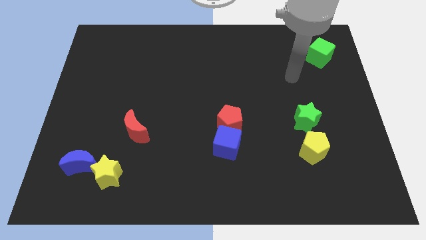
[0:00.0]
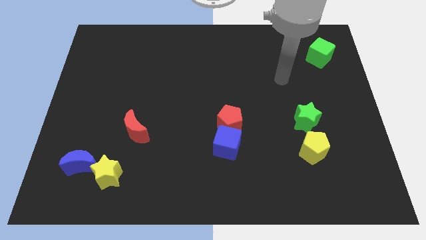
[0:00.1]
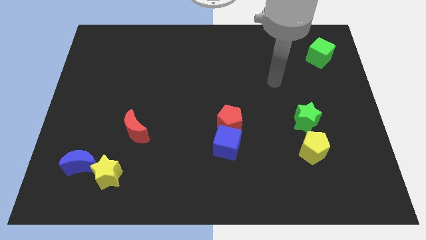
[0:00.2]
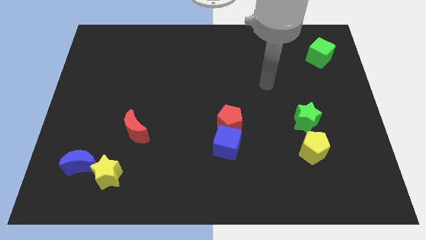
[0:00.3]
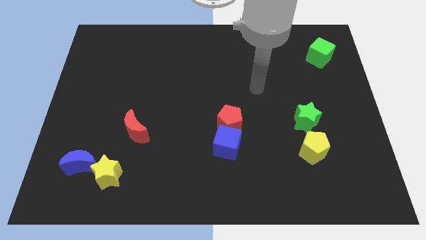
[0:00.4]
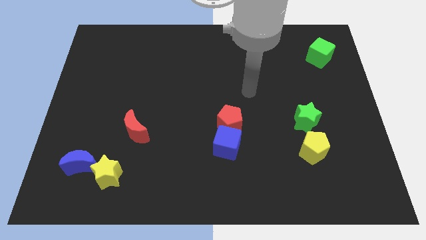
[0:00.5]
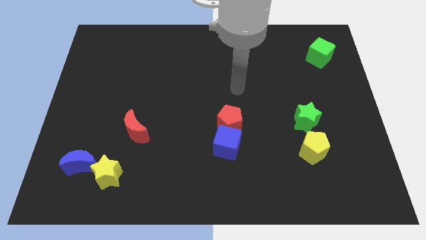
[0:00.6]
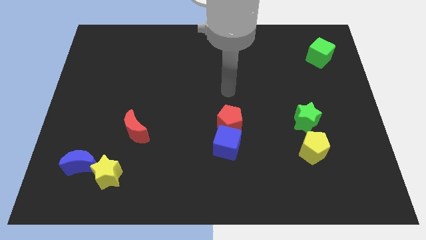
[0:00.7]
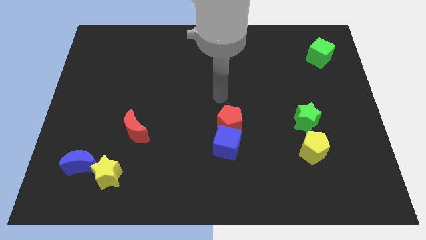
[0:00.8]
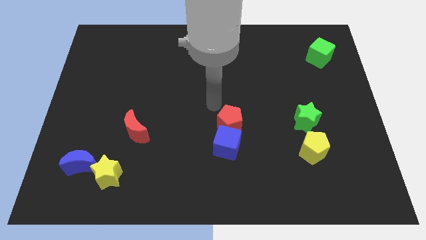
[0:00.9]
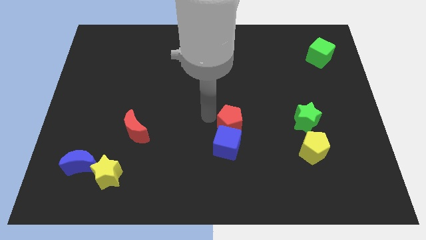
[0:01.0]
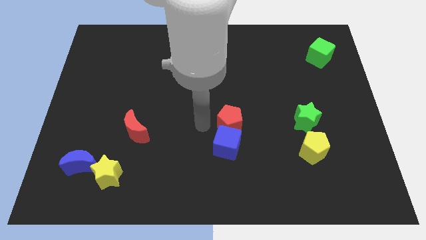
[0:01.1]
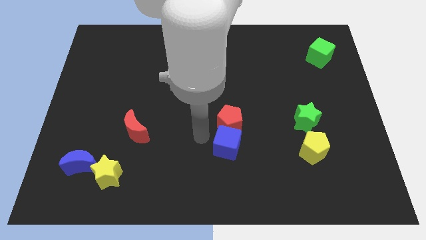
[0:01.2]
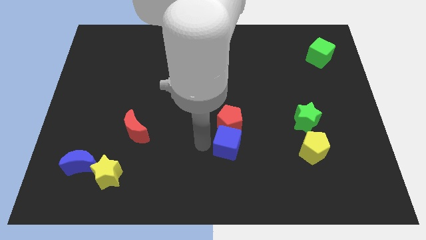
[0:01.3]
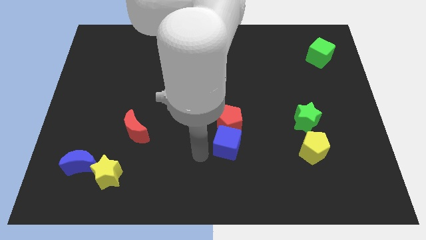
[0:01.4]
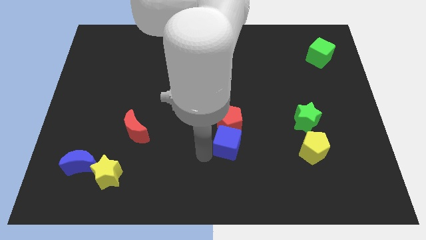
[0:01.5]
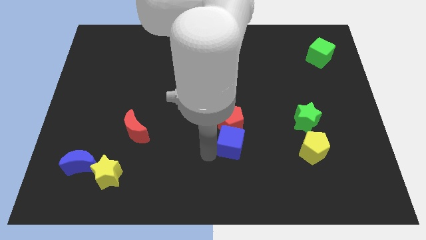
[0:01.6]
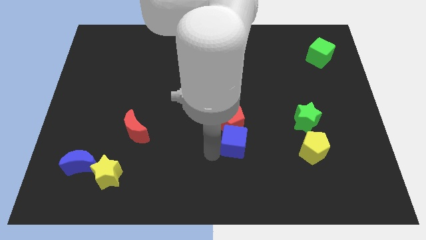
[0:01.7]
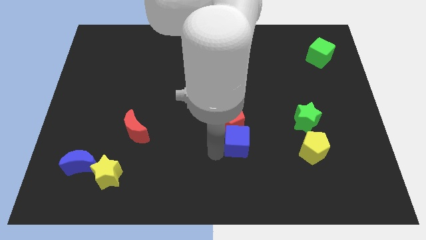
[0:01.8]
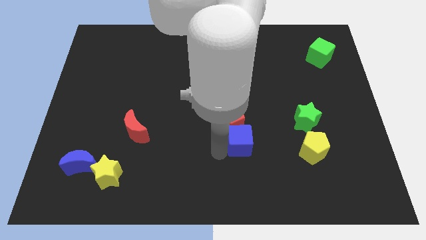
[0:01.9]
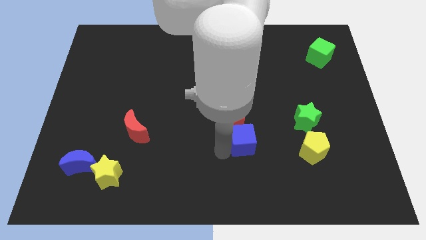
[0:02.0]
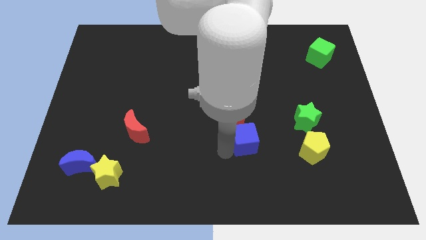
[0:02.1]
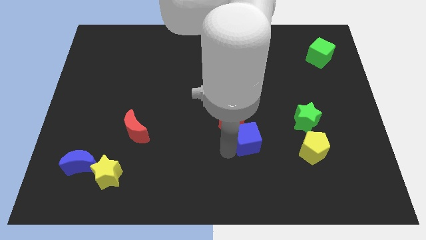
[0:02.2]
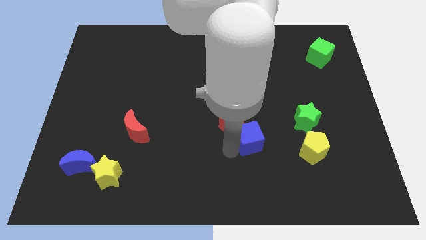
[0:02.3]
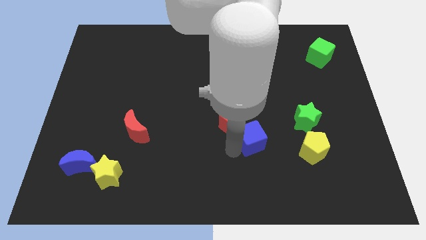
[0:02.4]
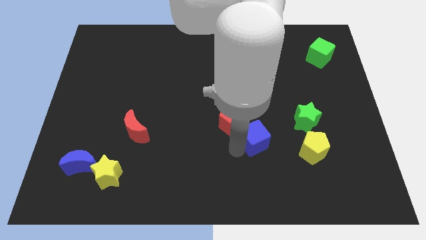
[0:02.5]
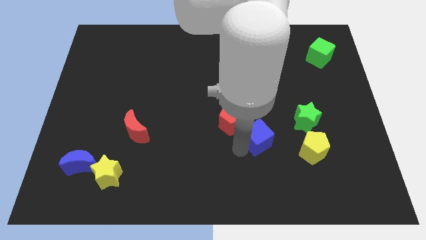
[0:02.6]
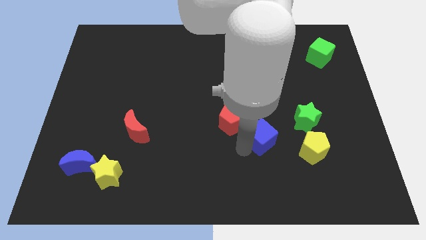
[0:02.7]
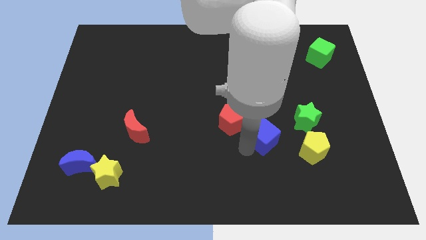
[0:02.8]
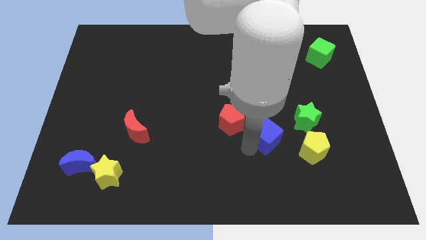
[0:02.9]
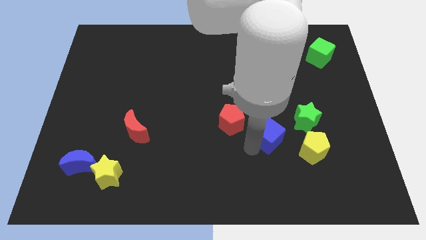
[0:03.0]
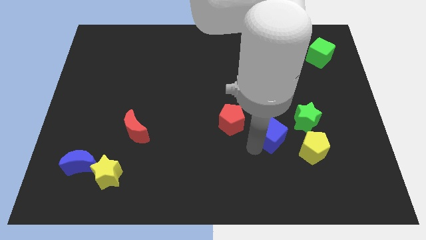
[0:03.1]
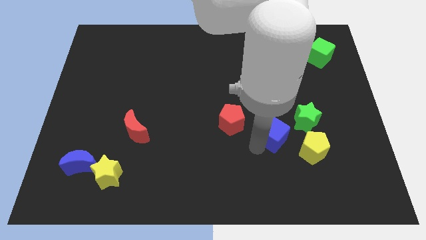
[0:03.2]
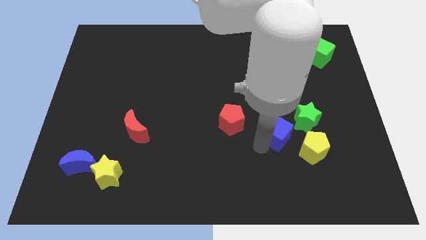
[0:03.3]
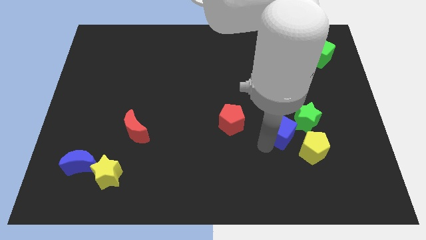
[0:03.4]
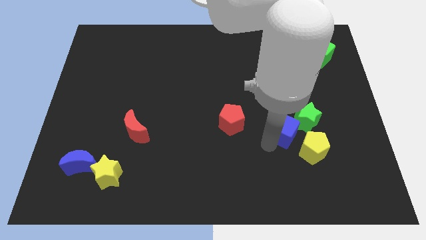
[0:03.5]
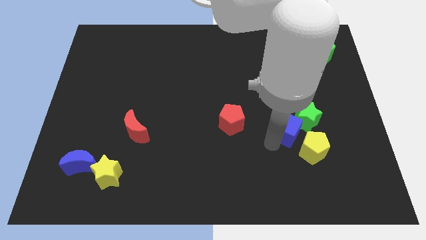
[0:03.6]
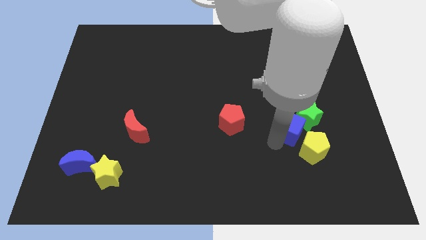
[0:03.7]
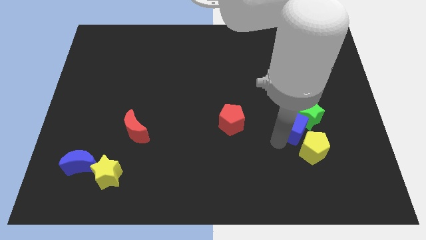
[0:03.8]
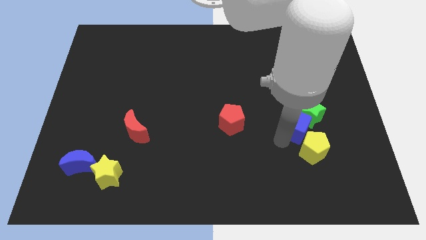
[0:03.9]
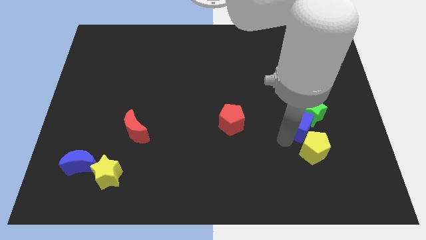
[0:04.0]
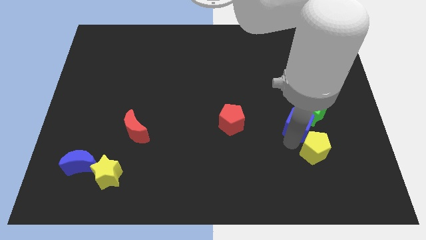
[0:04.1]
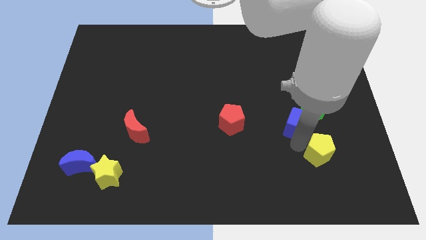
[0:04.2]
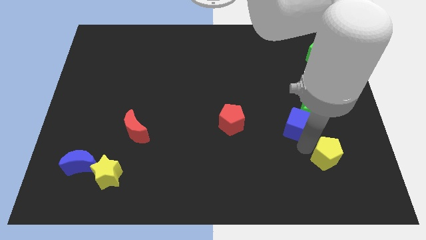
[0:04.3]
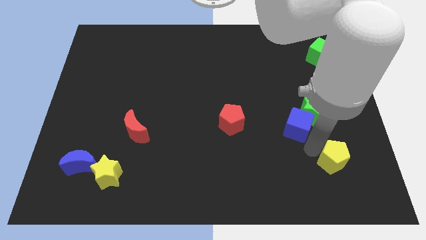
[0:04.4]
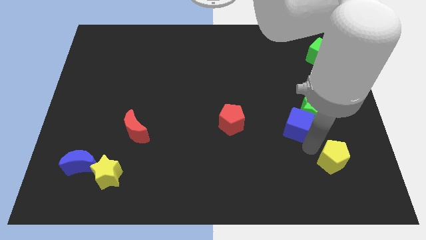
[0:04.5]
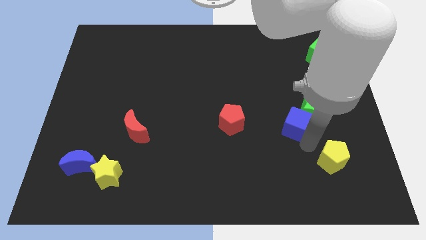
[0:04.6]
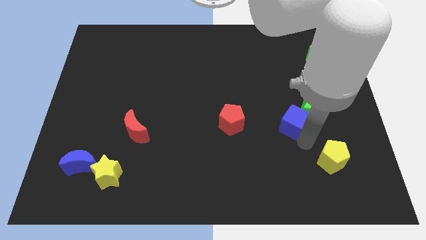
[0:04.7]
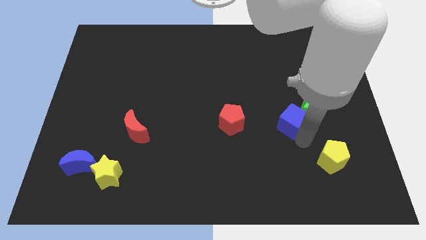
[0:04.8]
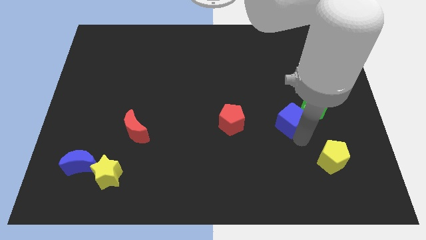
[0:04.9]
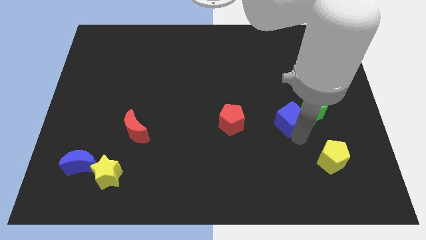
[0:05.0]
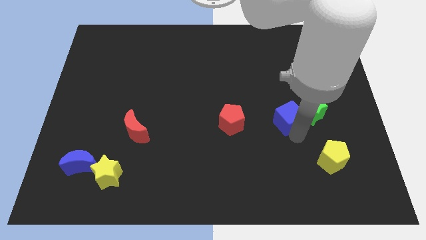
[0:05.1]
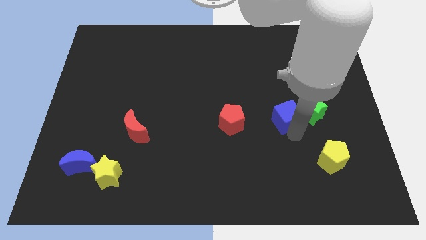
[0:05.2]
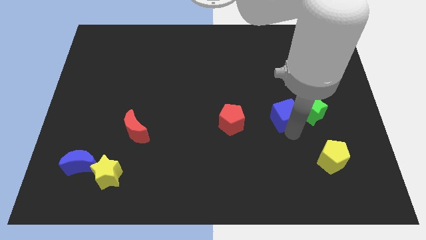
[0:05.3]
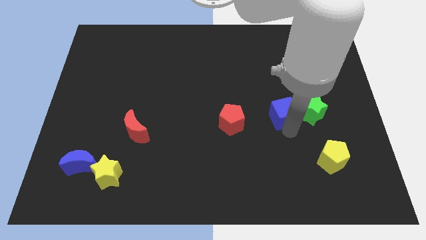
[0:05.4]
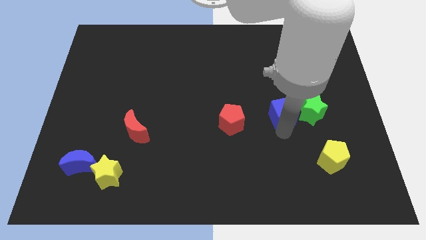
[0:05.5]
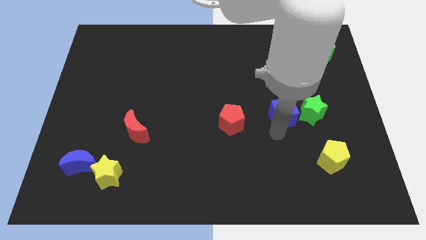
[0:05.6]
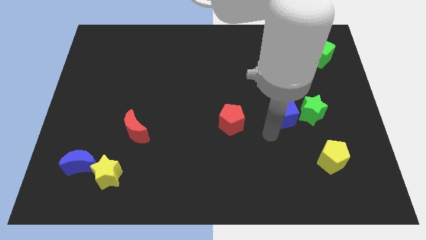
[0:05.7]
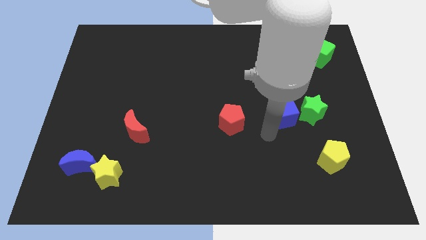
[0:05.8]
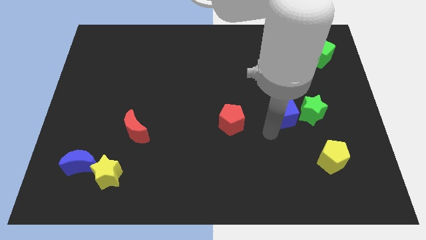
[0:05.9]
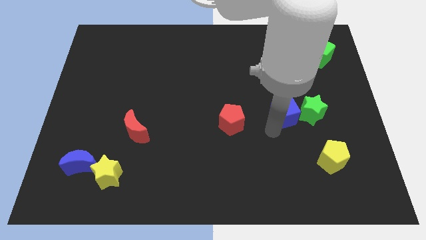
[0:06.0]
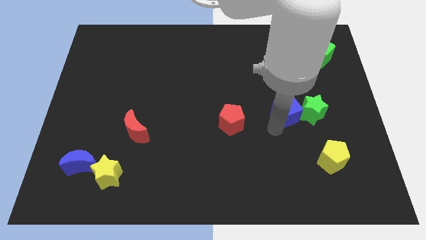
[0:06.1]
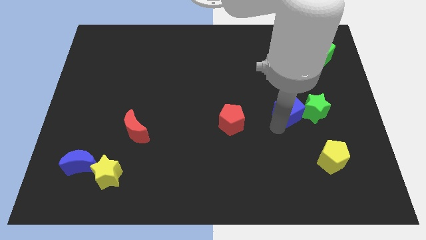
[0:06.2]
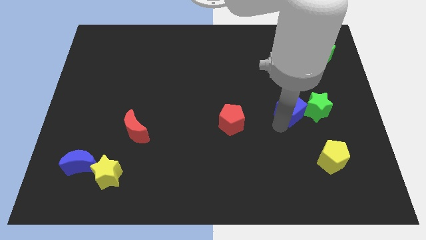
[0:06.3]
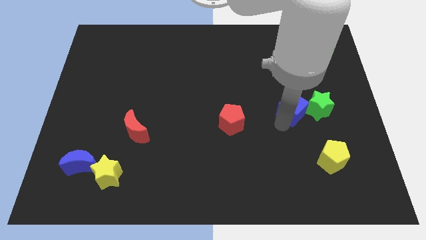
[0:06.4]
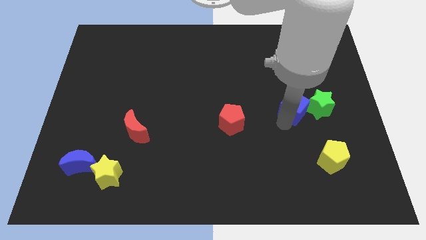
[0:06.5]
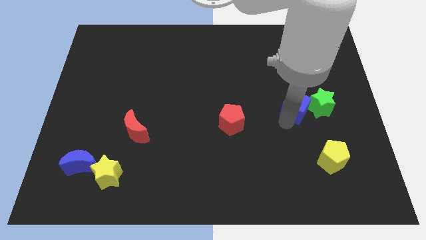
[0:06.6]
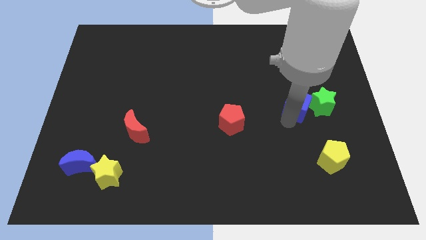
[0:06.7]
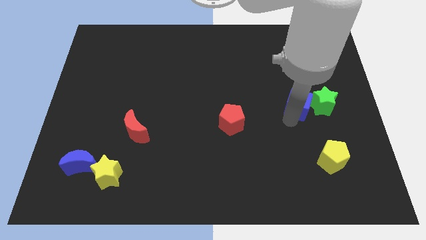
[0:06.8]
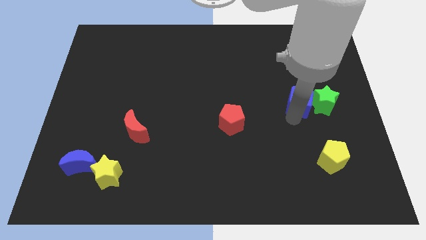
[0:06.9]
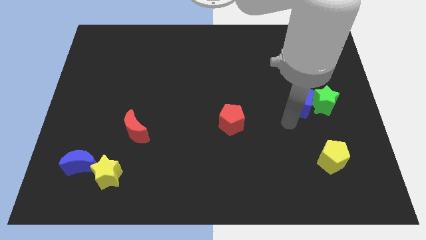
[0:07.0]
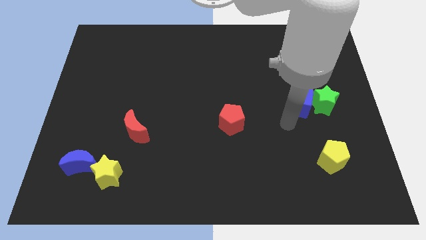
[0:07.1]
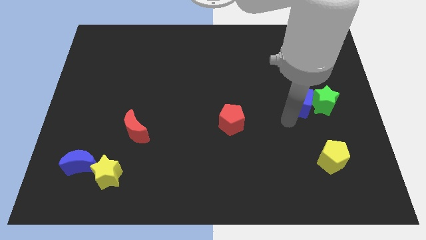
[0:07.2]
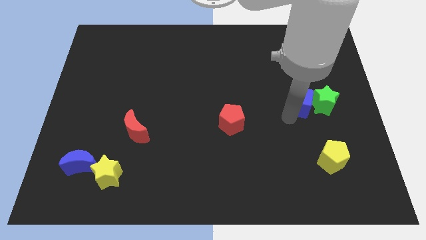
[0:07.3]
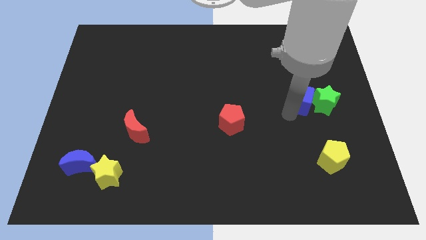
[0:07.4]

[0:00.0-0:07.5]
move the blue cube up and to the right diagonally

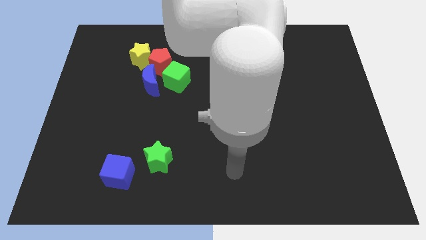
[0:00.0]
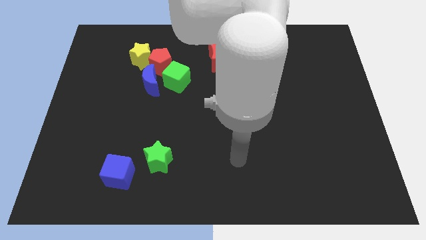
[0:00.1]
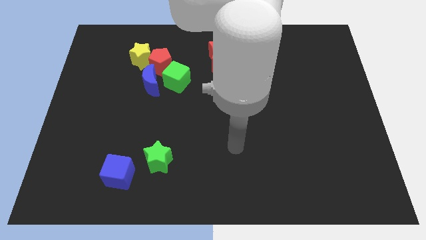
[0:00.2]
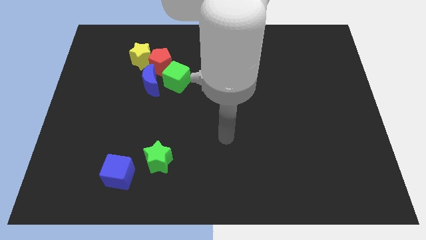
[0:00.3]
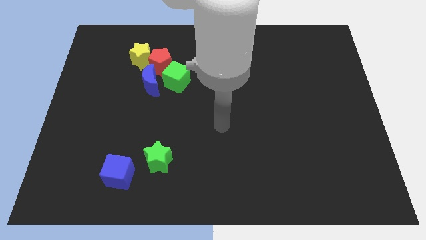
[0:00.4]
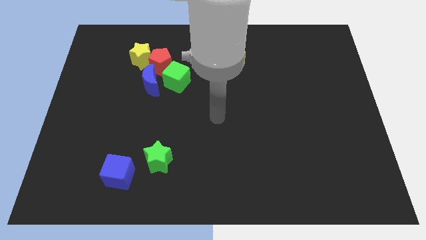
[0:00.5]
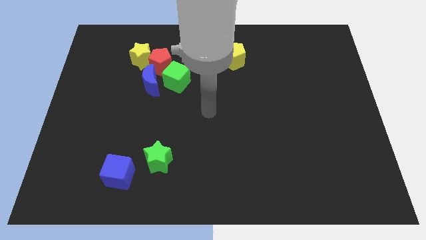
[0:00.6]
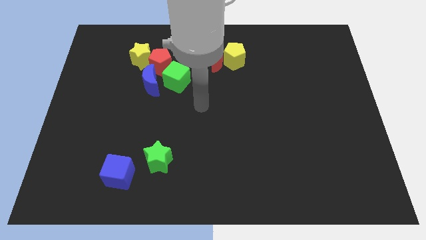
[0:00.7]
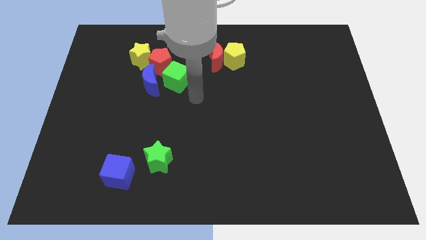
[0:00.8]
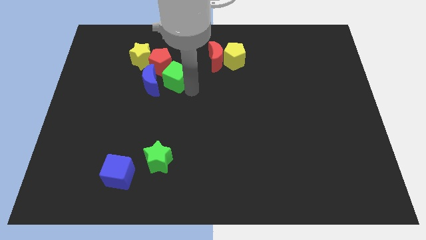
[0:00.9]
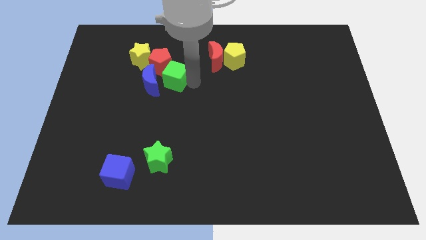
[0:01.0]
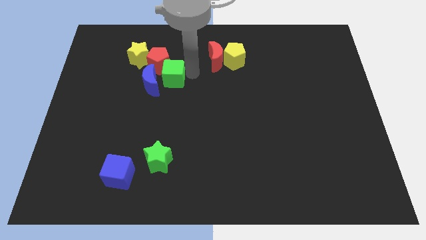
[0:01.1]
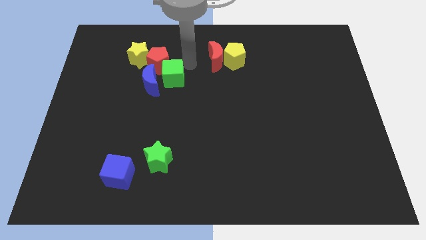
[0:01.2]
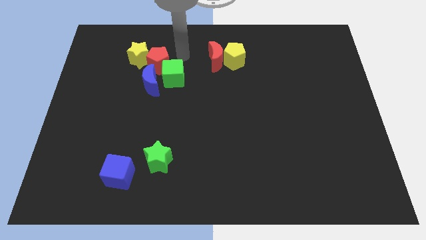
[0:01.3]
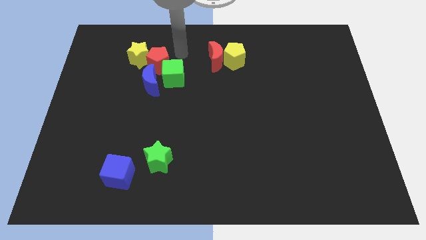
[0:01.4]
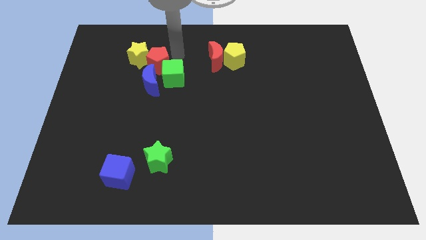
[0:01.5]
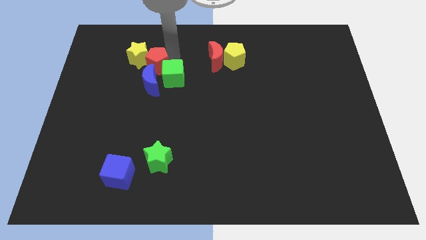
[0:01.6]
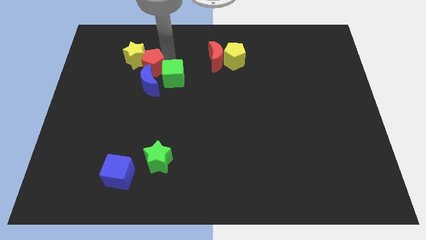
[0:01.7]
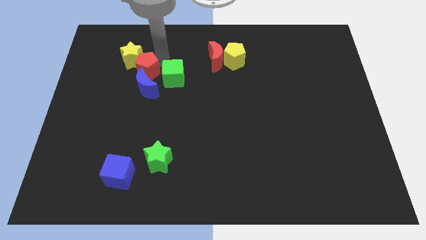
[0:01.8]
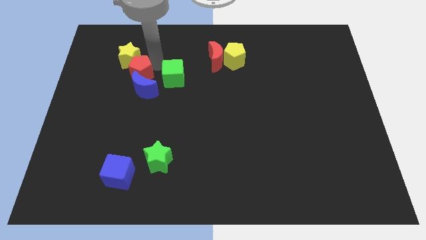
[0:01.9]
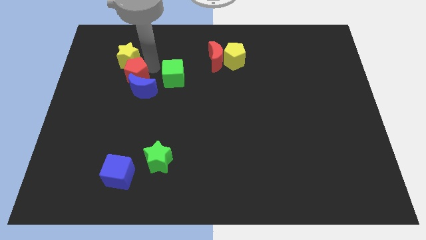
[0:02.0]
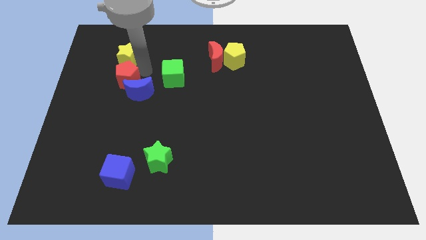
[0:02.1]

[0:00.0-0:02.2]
slightly slide the red pentagon down and to the left
